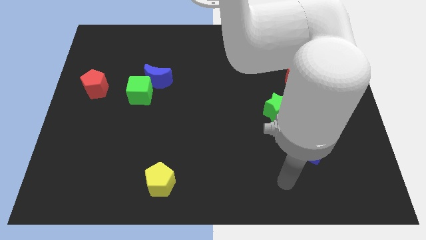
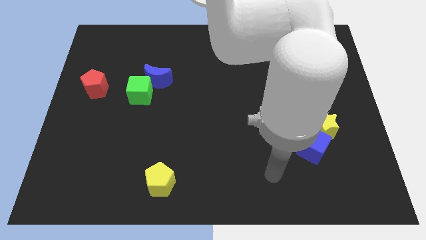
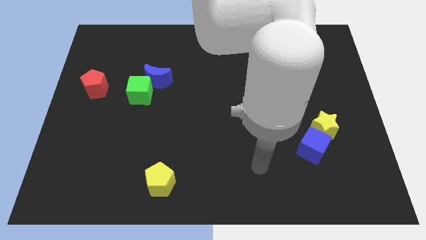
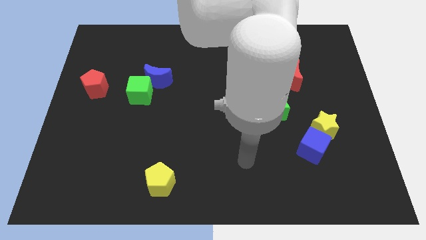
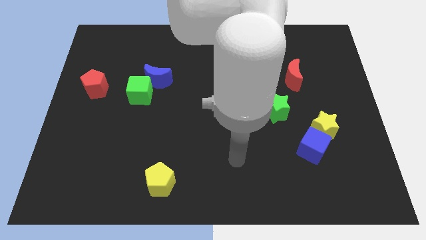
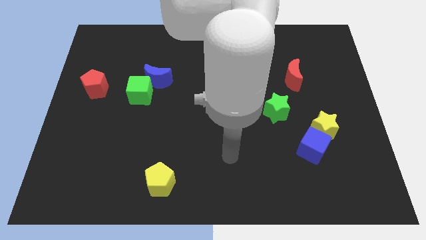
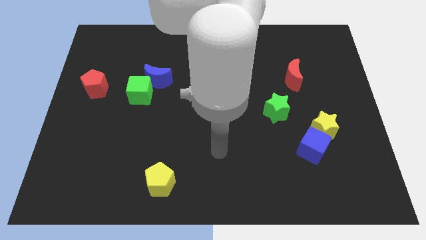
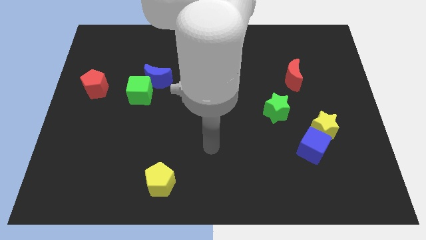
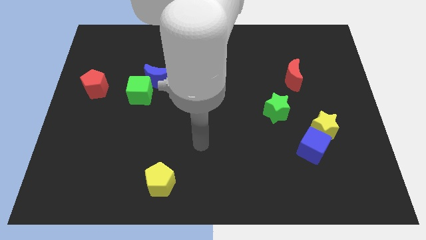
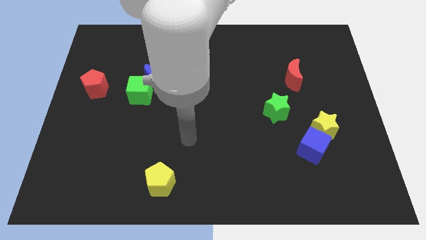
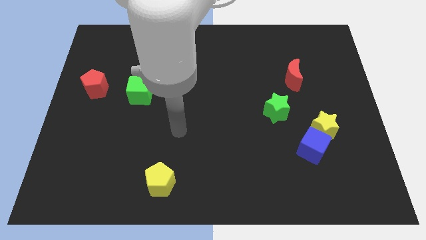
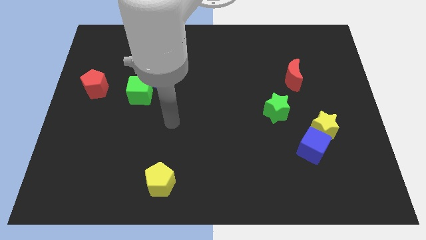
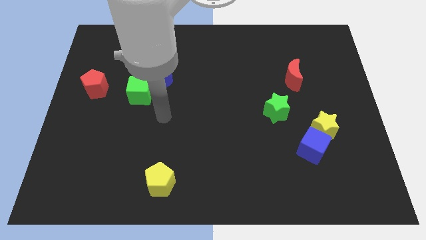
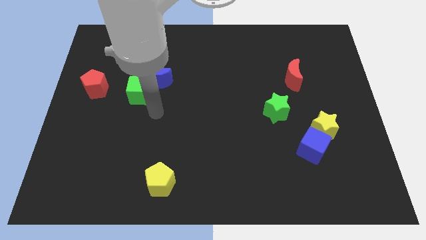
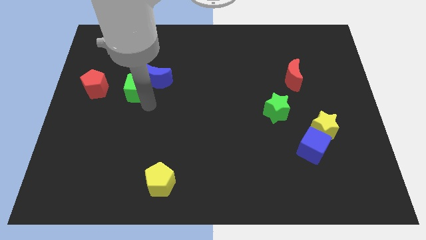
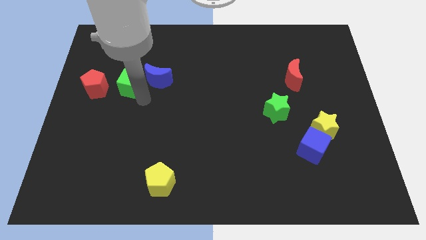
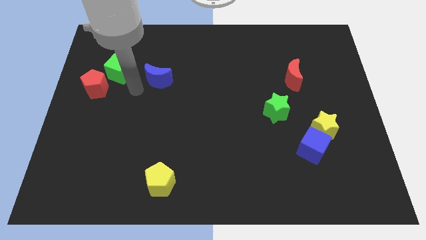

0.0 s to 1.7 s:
move the blue moon away from the green cube

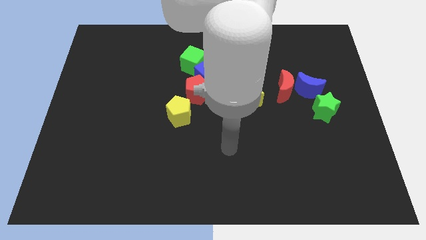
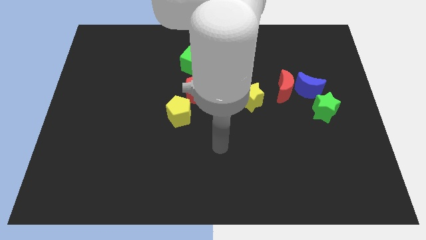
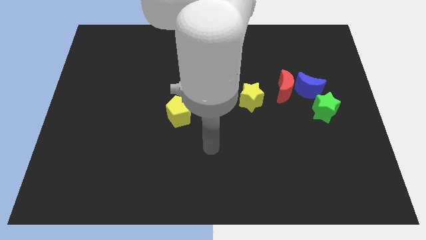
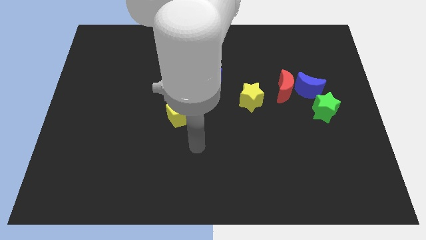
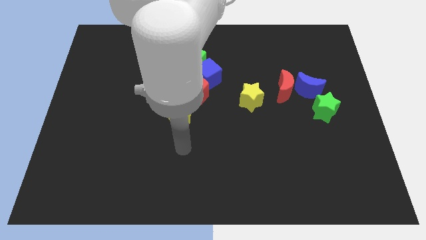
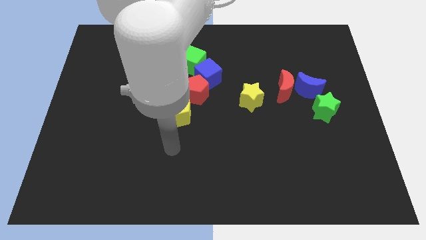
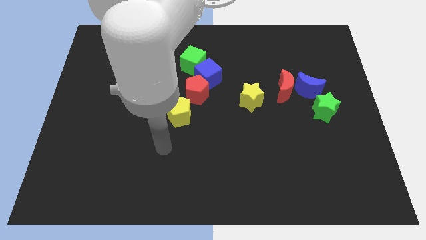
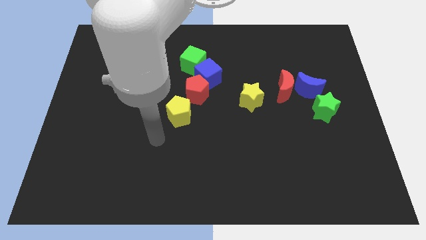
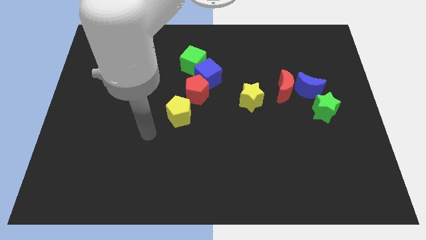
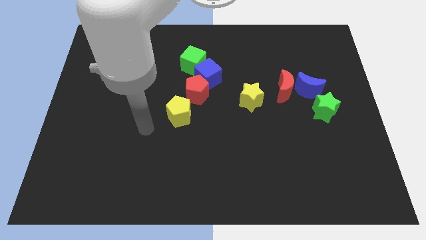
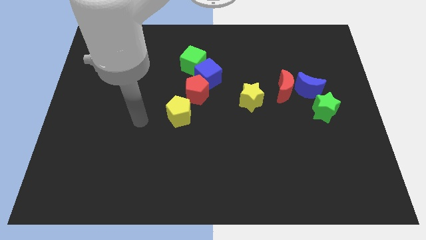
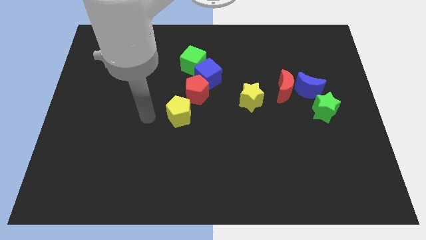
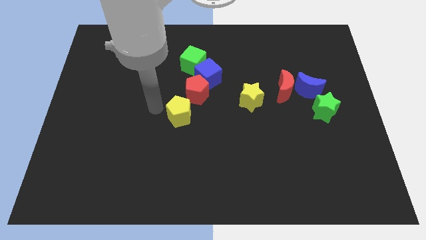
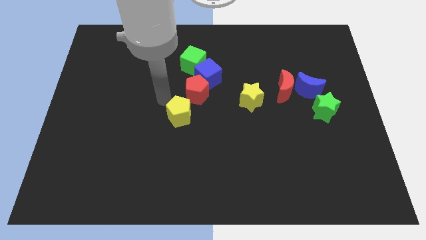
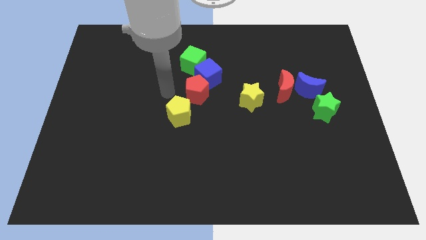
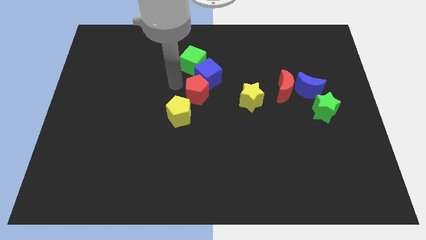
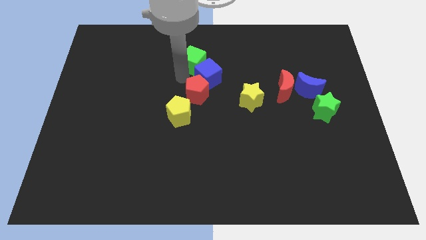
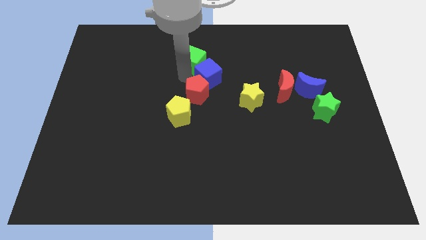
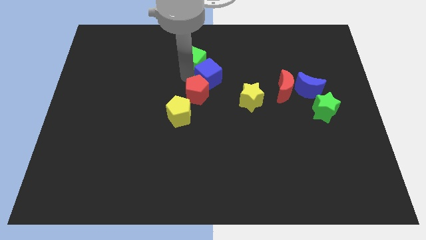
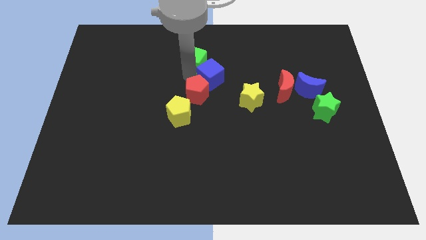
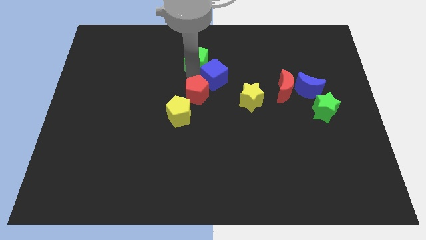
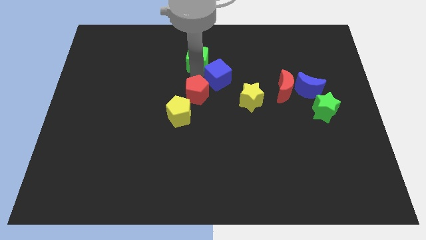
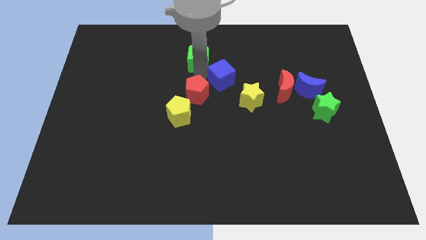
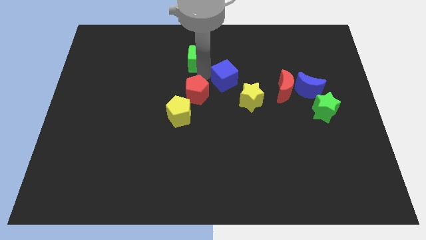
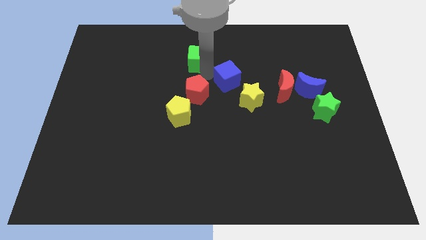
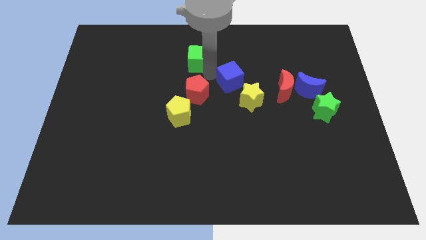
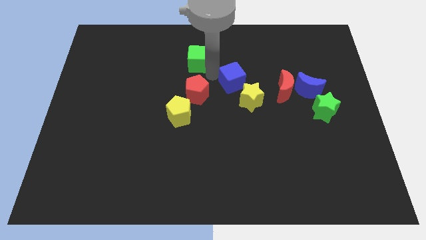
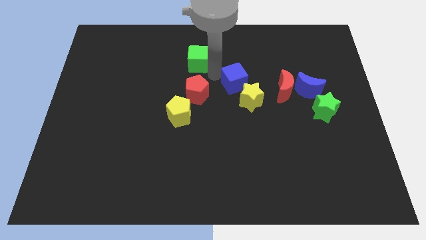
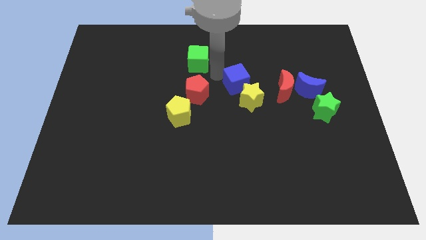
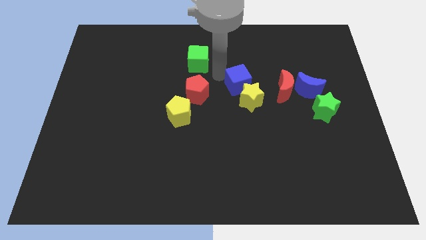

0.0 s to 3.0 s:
separate the blue cube from the red pentagon and green cube

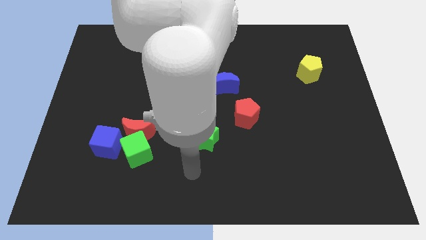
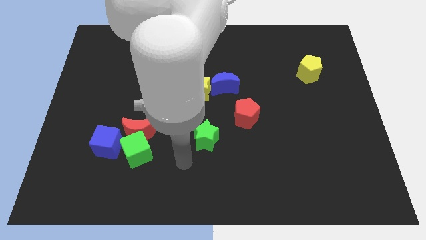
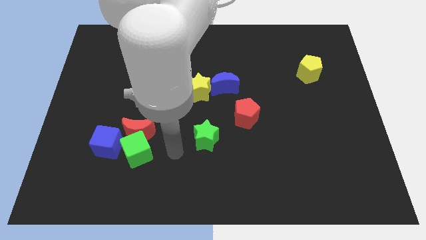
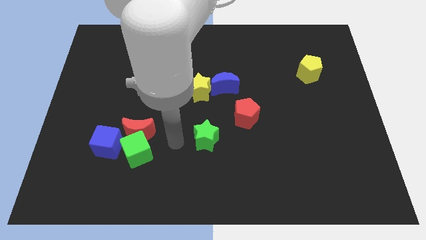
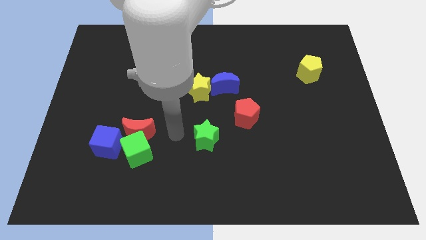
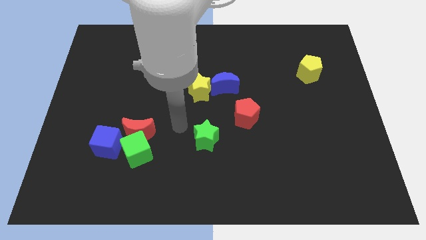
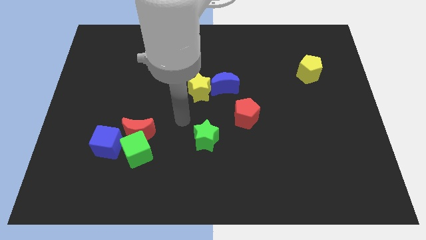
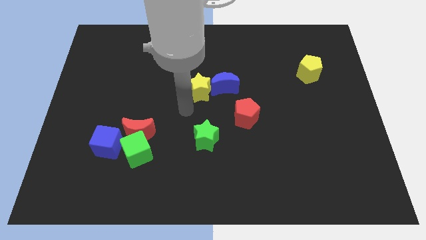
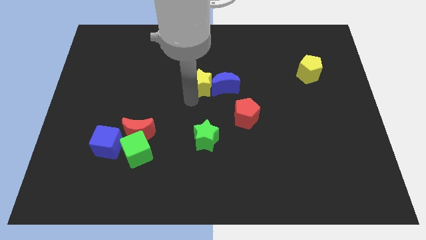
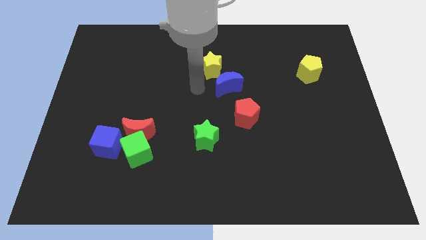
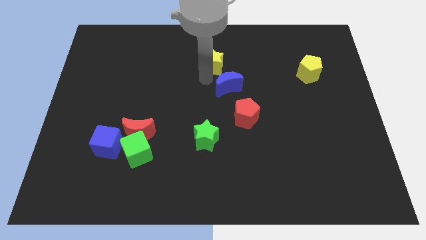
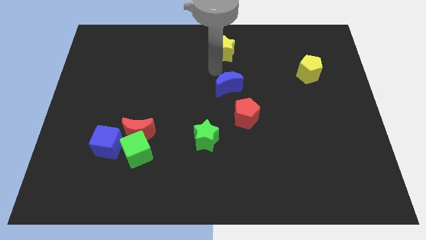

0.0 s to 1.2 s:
pull the blue moon apart from the yellow star

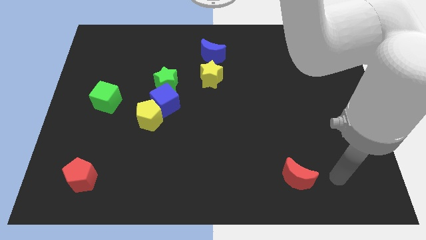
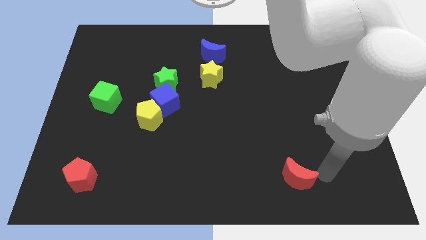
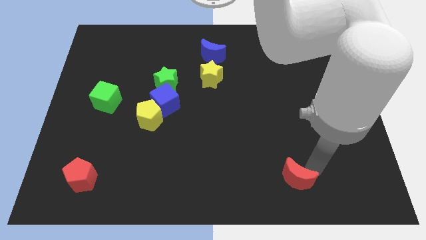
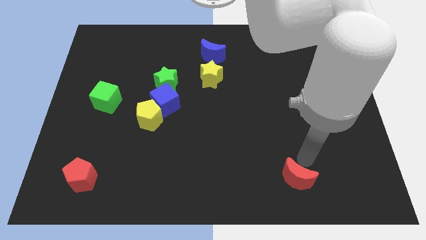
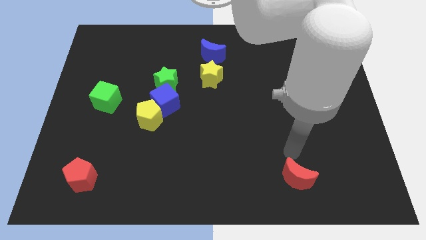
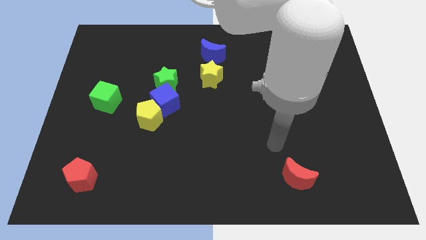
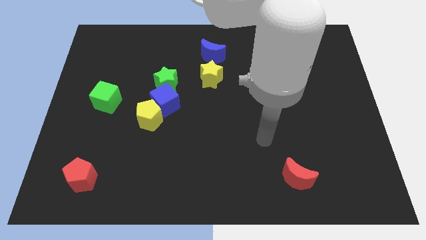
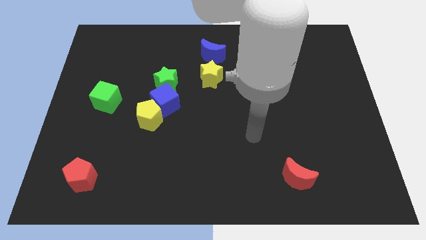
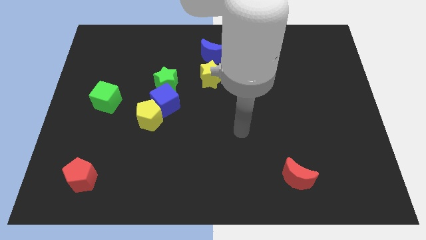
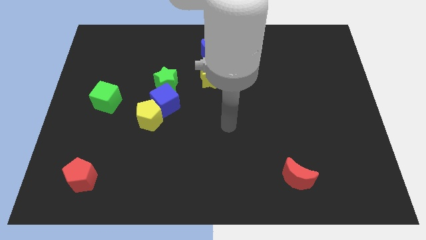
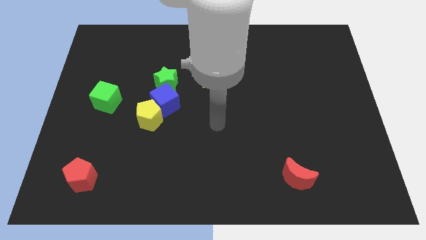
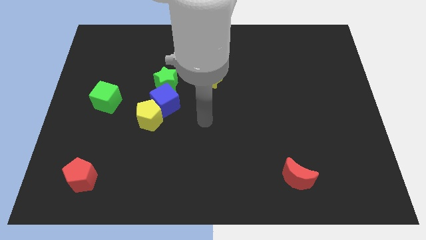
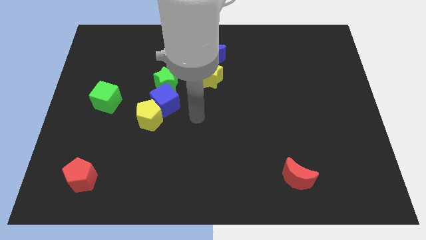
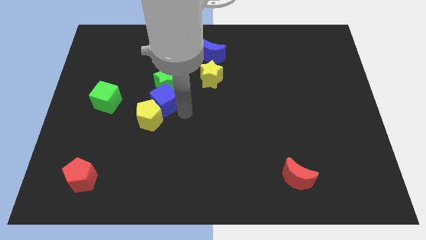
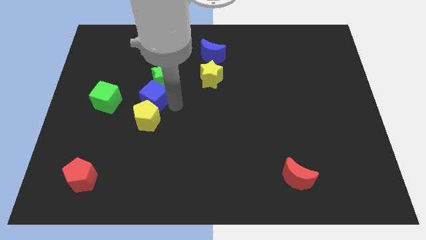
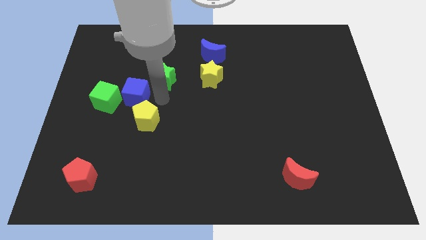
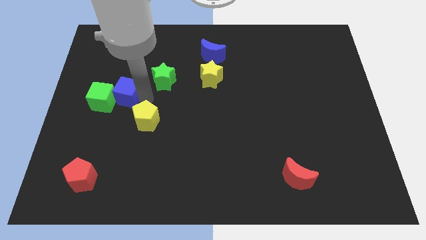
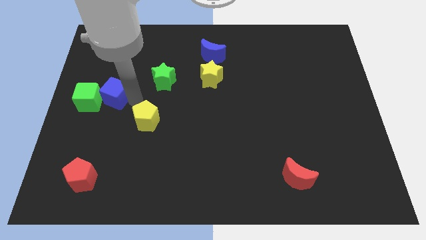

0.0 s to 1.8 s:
pull the yellow pentagon apart from the blue cube

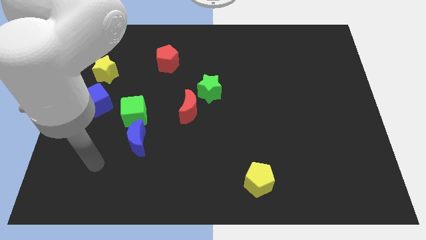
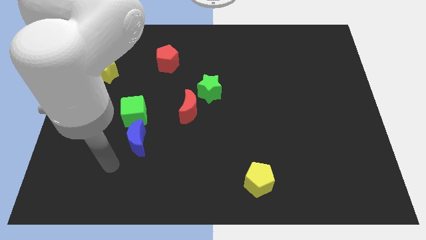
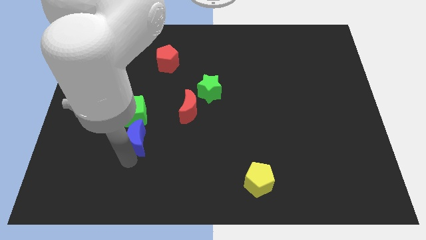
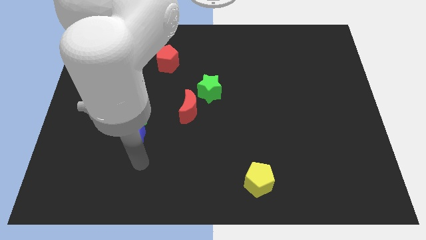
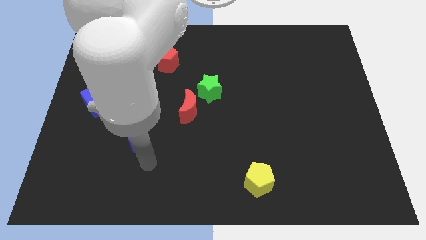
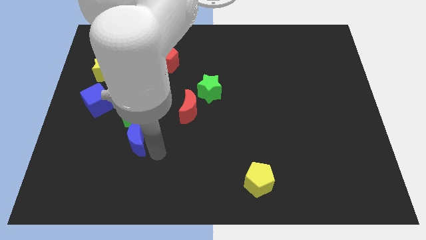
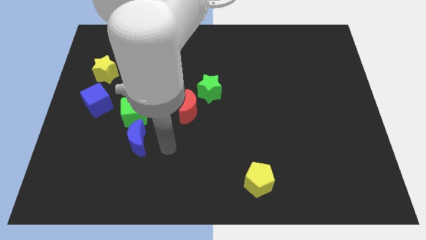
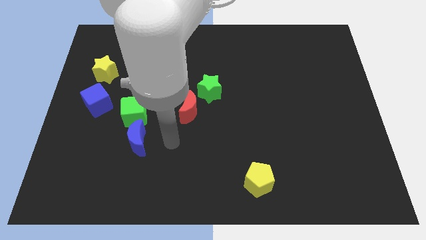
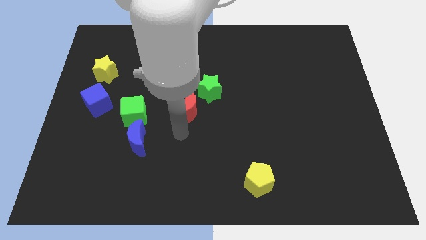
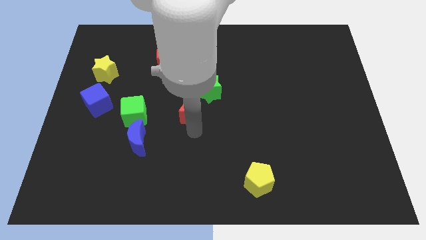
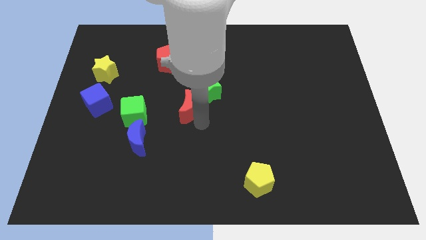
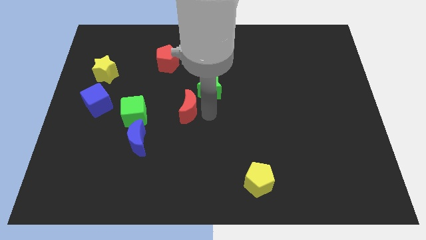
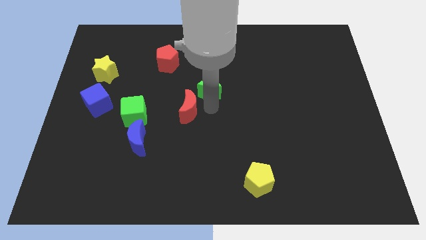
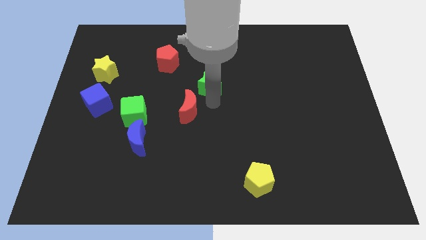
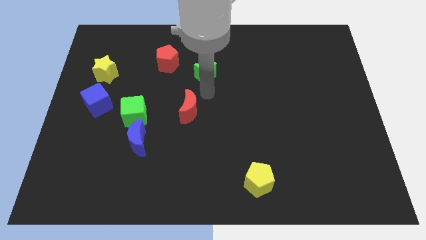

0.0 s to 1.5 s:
separate the red moon from the green star
